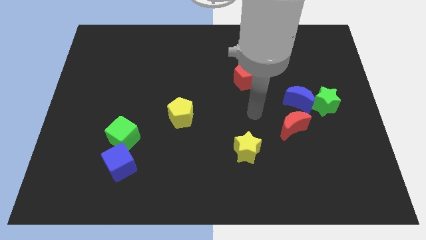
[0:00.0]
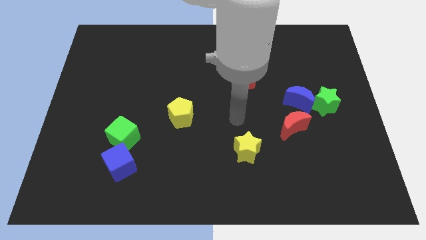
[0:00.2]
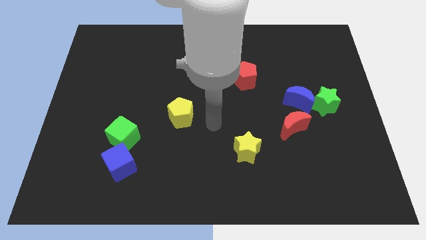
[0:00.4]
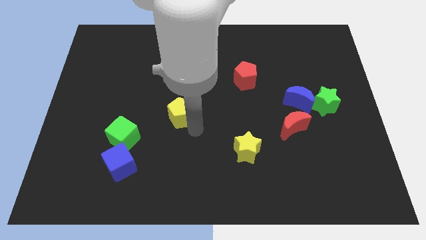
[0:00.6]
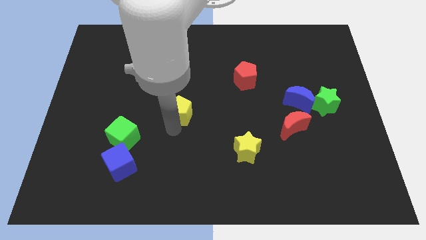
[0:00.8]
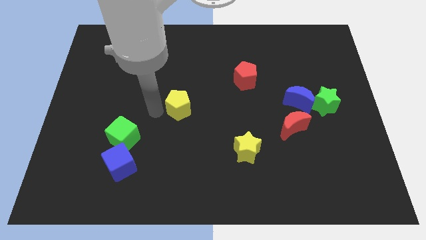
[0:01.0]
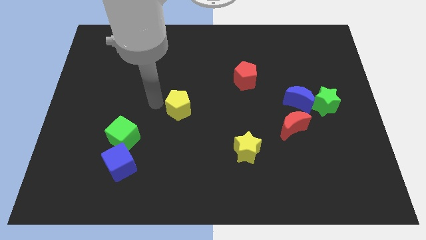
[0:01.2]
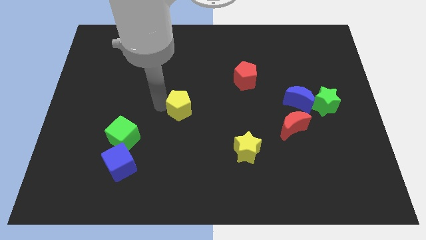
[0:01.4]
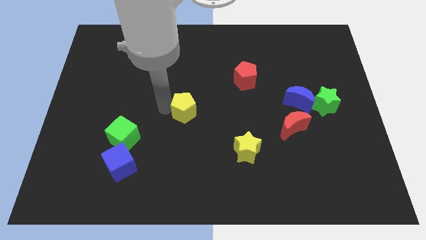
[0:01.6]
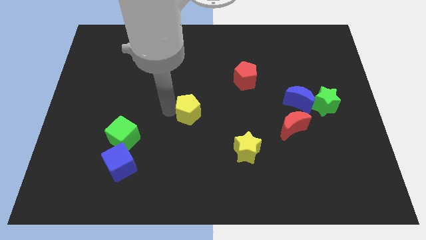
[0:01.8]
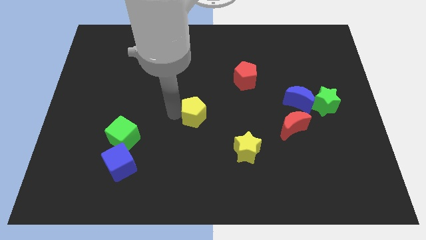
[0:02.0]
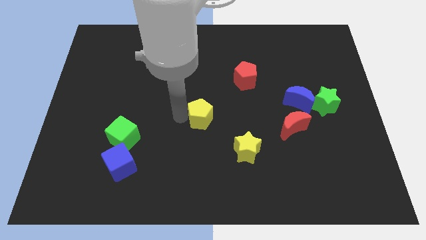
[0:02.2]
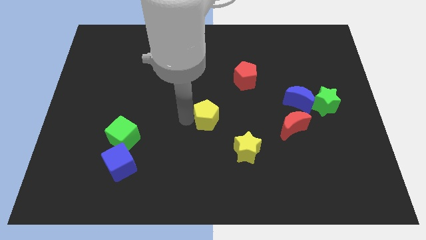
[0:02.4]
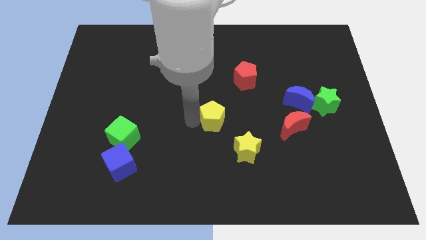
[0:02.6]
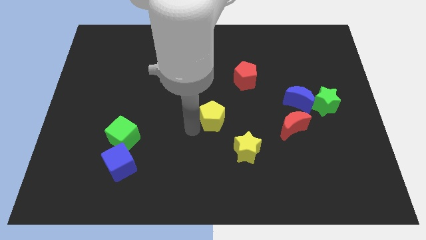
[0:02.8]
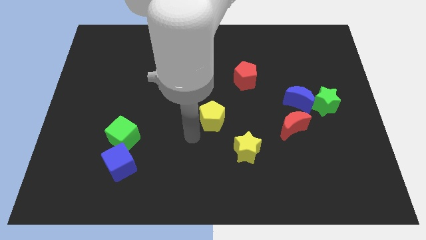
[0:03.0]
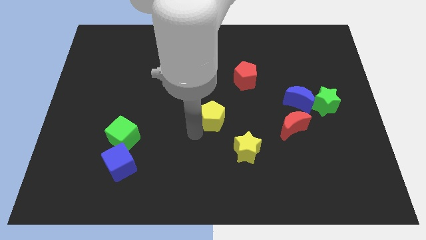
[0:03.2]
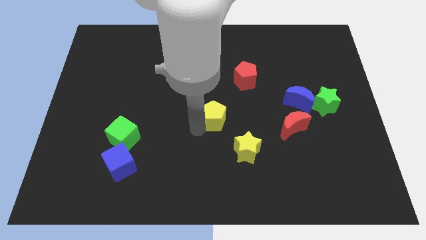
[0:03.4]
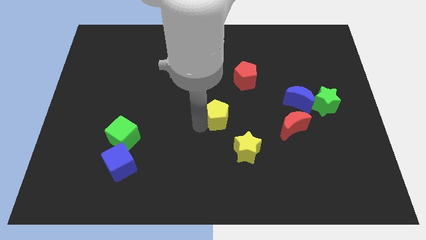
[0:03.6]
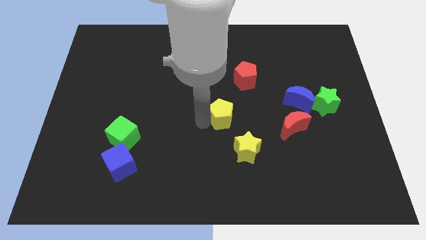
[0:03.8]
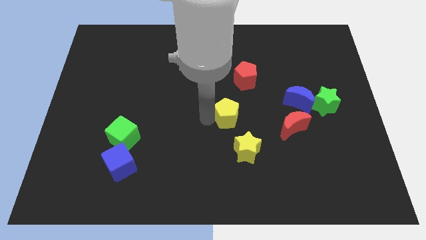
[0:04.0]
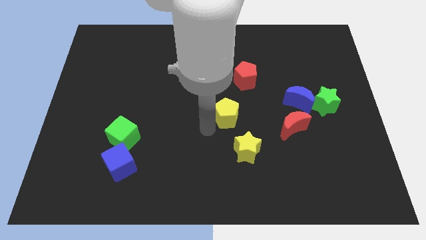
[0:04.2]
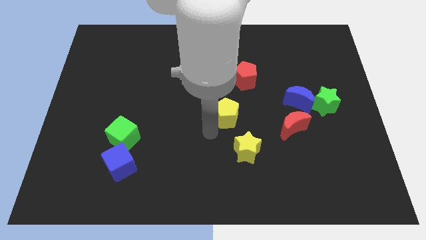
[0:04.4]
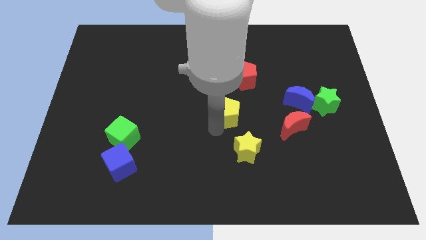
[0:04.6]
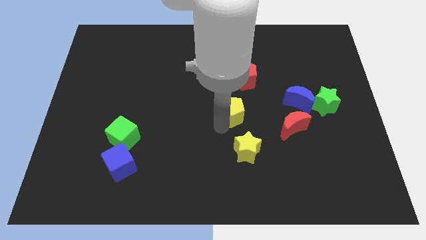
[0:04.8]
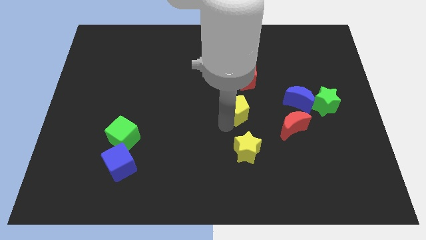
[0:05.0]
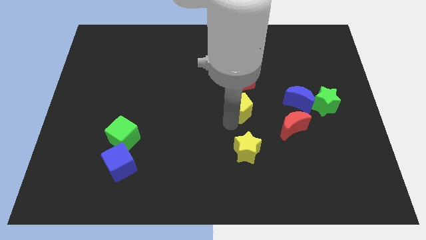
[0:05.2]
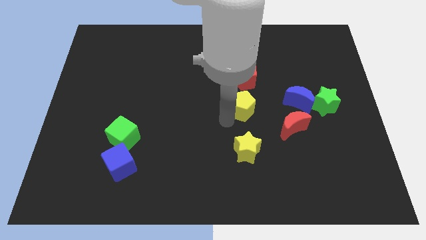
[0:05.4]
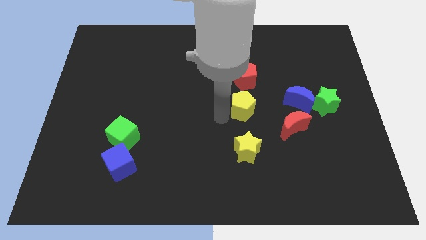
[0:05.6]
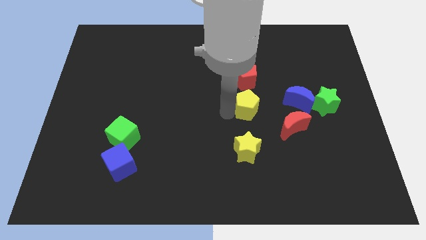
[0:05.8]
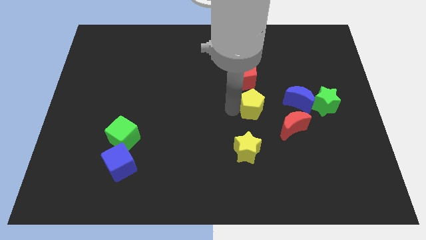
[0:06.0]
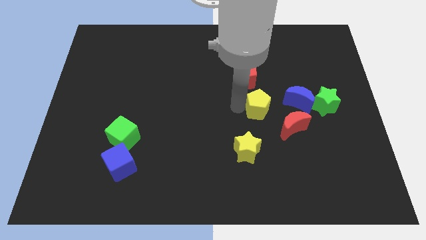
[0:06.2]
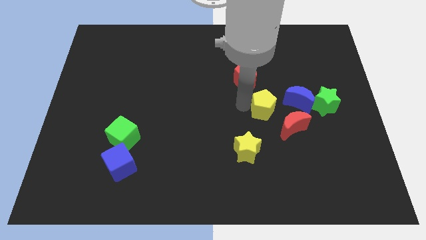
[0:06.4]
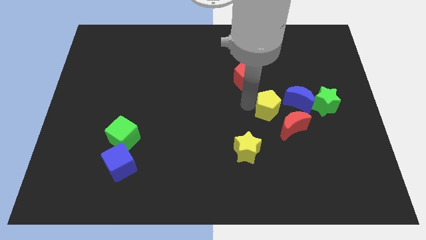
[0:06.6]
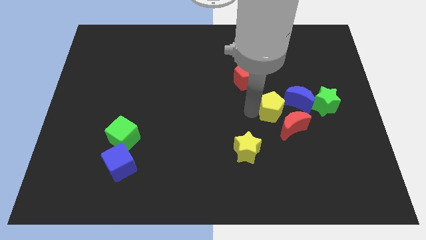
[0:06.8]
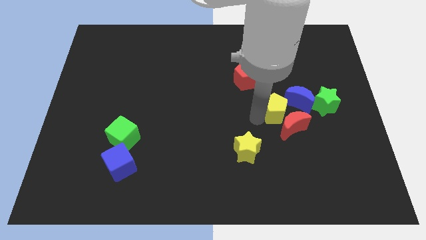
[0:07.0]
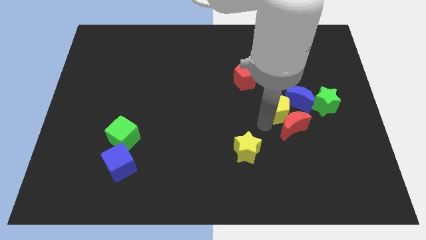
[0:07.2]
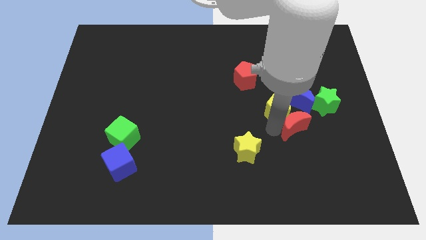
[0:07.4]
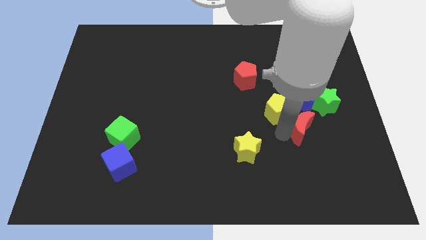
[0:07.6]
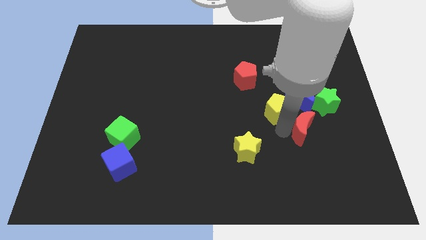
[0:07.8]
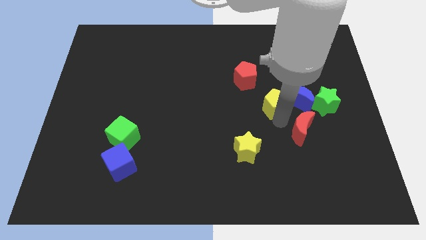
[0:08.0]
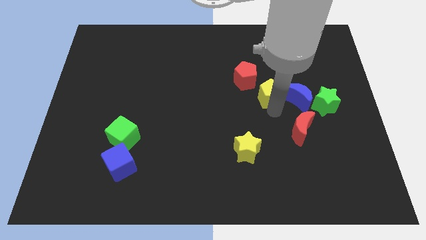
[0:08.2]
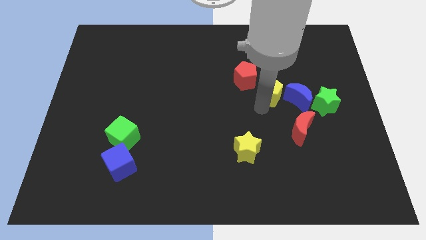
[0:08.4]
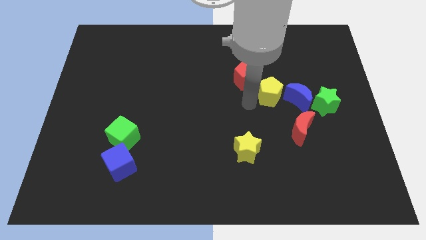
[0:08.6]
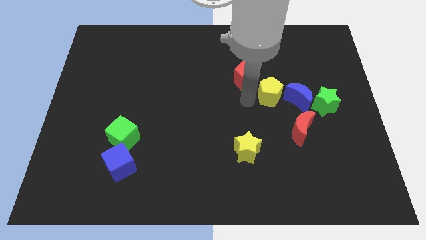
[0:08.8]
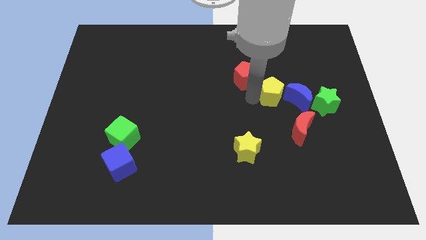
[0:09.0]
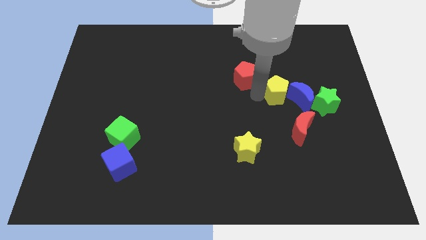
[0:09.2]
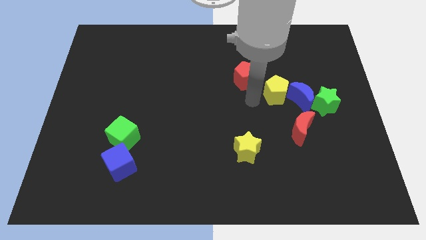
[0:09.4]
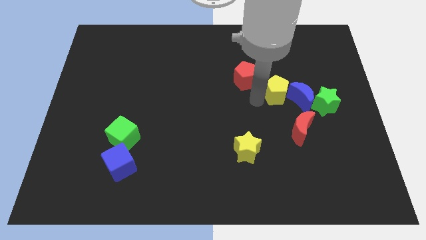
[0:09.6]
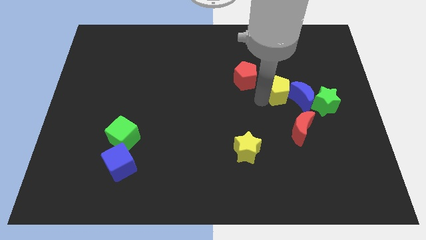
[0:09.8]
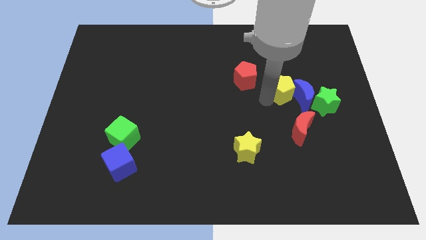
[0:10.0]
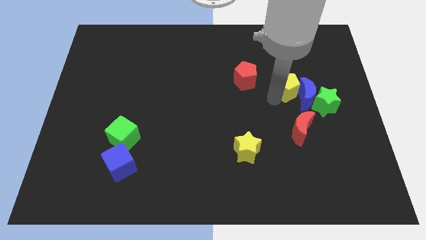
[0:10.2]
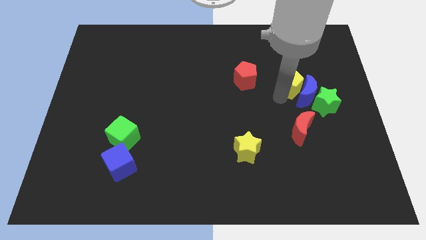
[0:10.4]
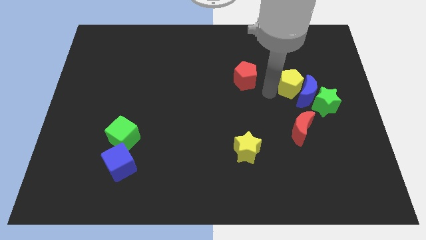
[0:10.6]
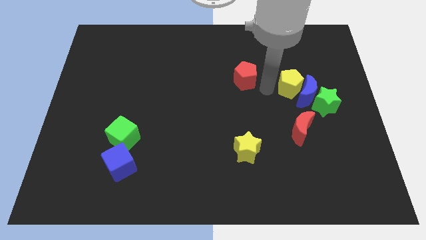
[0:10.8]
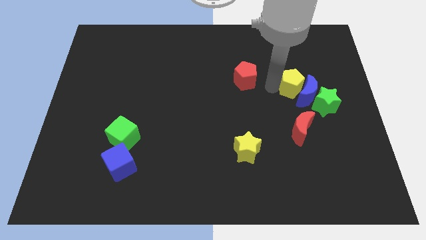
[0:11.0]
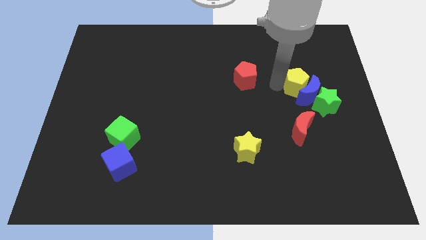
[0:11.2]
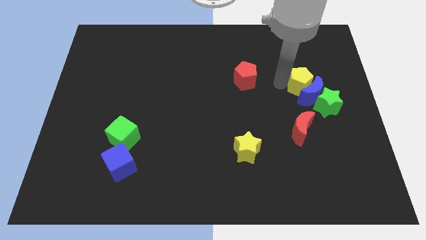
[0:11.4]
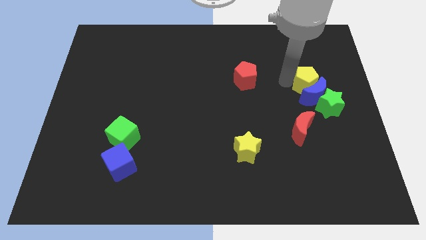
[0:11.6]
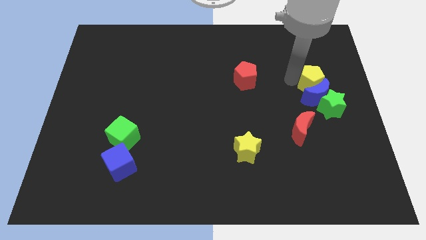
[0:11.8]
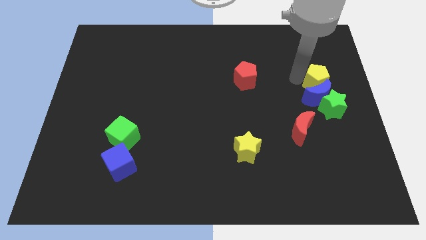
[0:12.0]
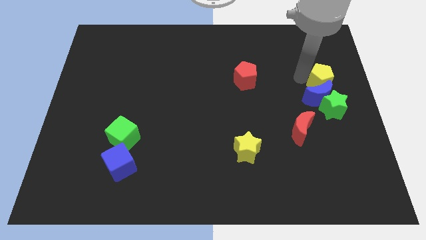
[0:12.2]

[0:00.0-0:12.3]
put the yellow pentagon to the center right
